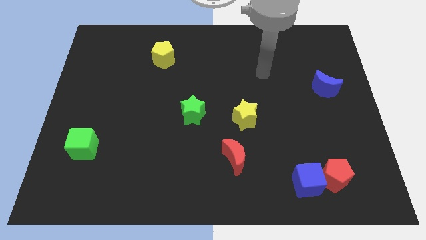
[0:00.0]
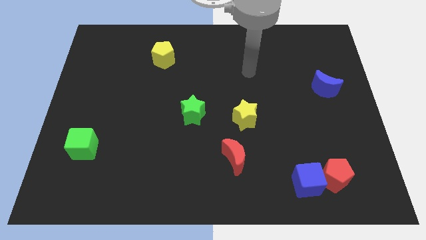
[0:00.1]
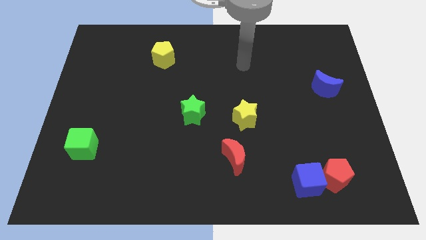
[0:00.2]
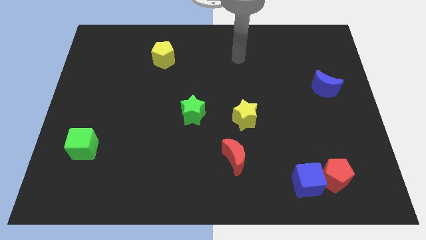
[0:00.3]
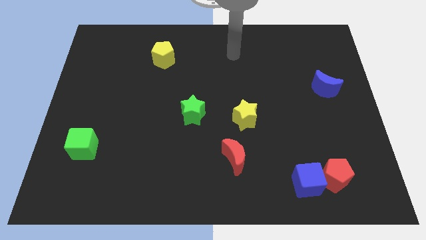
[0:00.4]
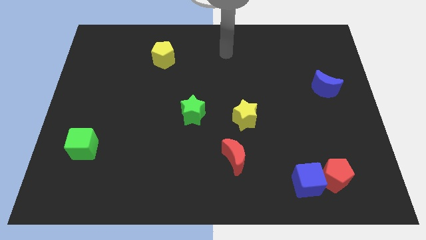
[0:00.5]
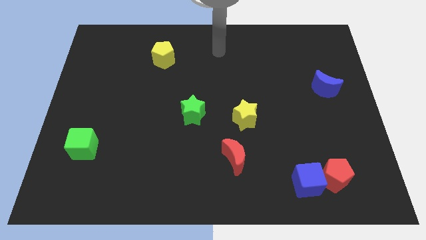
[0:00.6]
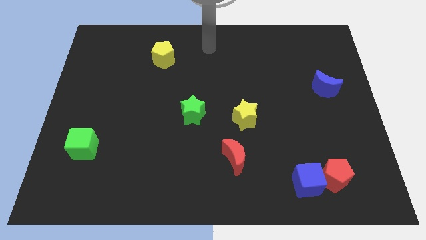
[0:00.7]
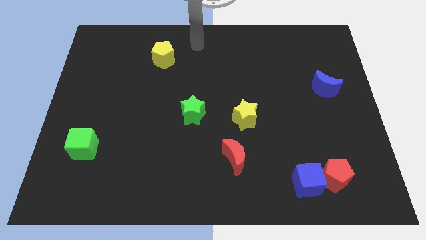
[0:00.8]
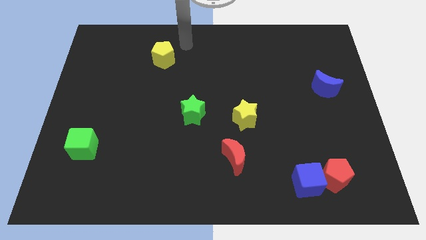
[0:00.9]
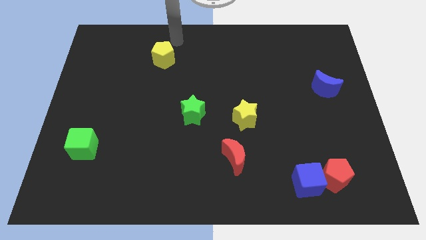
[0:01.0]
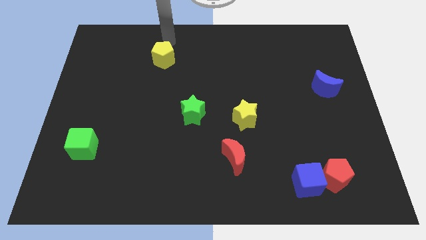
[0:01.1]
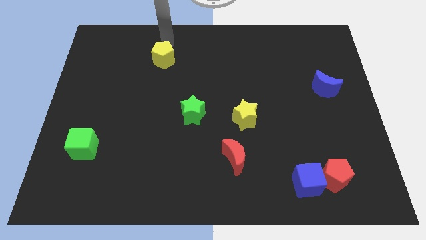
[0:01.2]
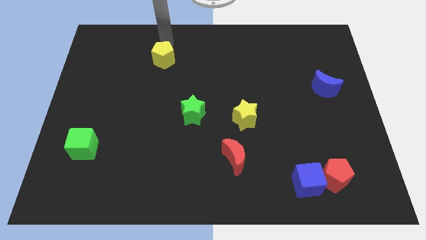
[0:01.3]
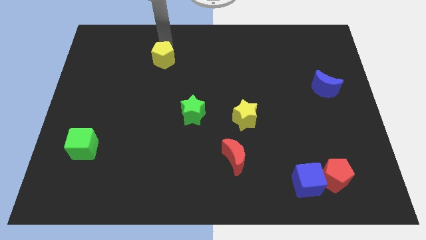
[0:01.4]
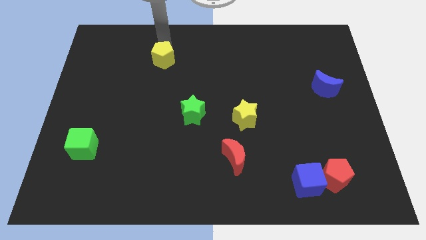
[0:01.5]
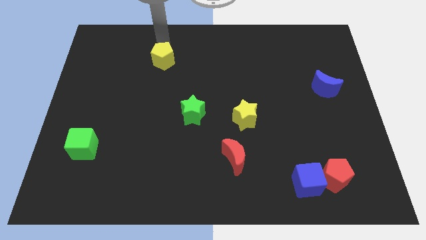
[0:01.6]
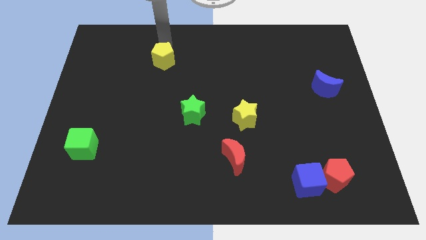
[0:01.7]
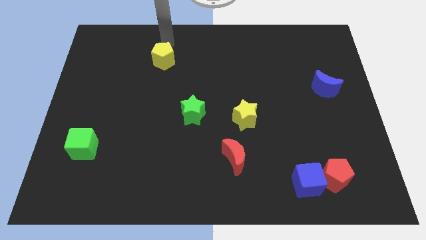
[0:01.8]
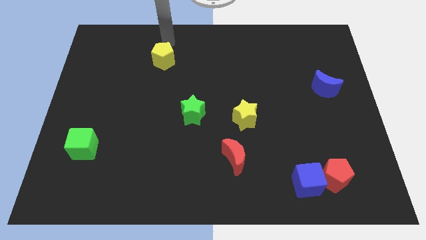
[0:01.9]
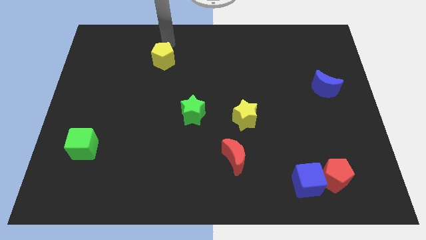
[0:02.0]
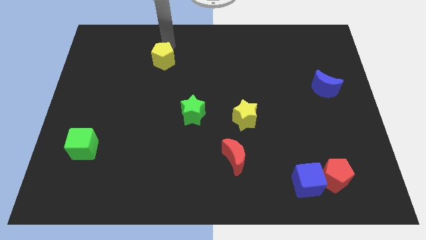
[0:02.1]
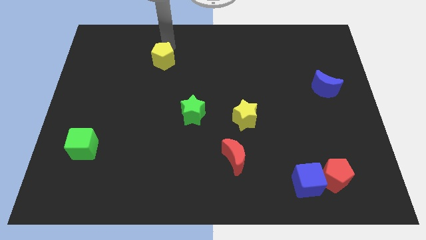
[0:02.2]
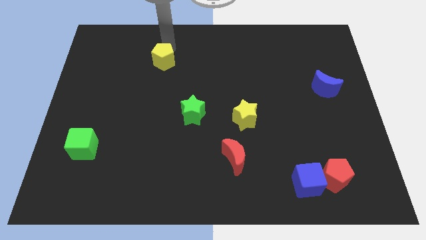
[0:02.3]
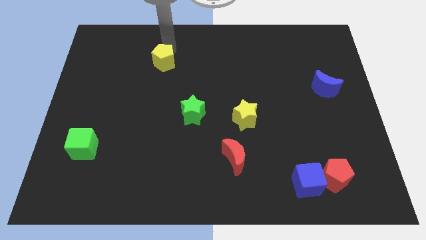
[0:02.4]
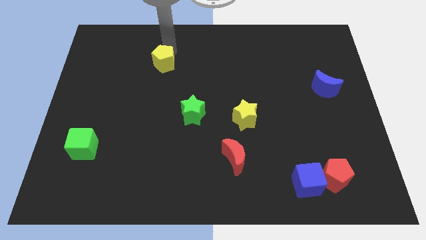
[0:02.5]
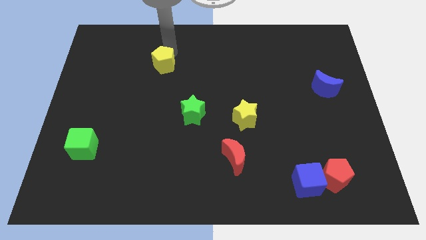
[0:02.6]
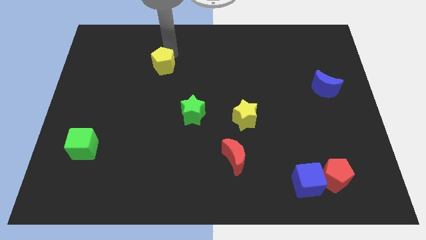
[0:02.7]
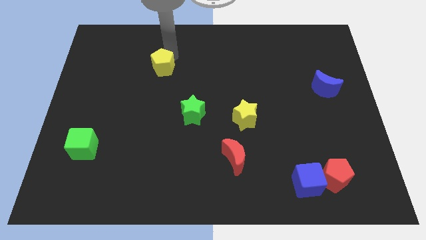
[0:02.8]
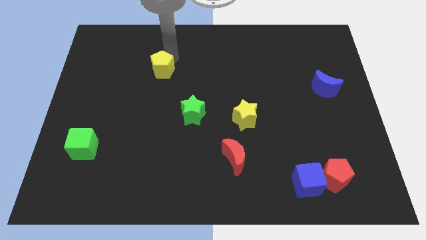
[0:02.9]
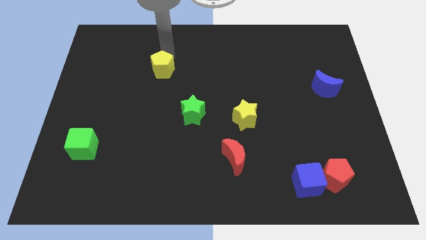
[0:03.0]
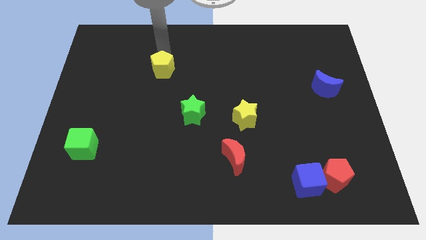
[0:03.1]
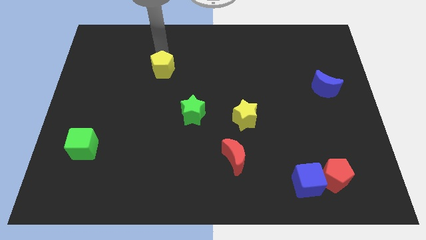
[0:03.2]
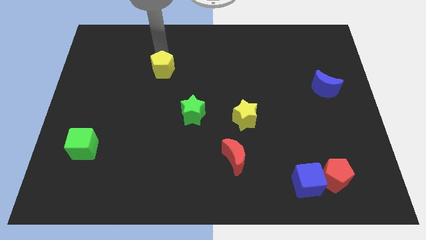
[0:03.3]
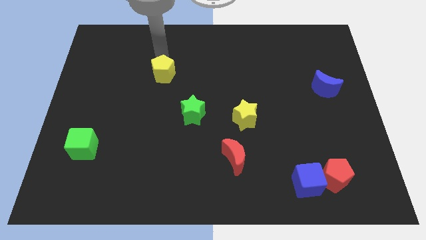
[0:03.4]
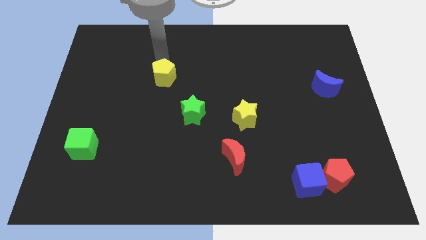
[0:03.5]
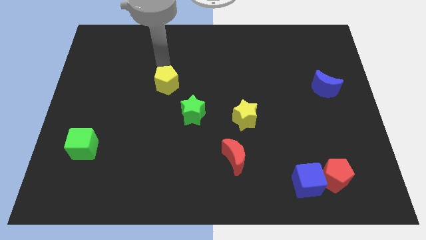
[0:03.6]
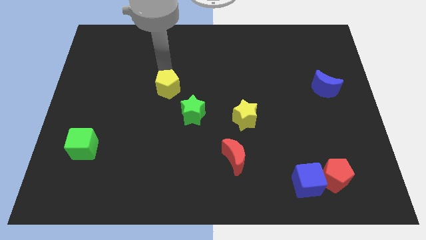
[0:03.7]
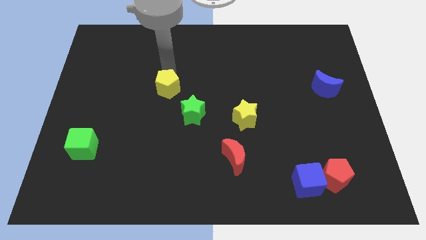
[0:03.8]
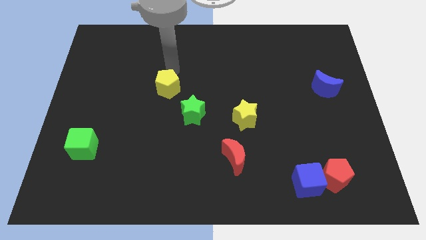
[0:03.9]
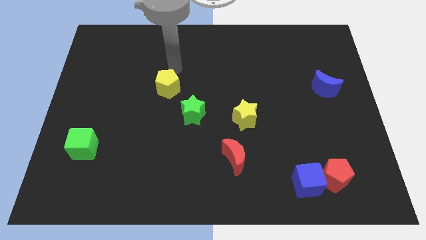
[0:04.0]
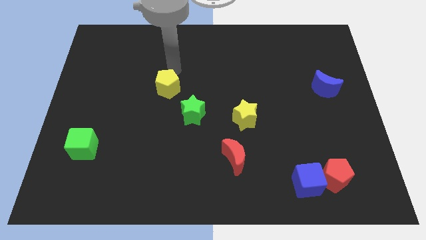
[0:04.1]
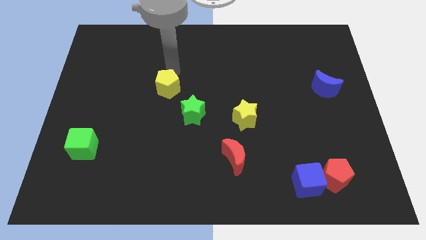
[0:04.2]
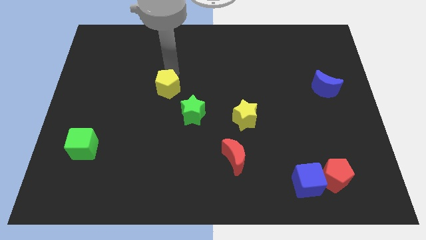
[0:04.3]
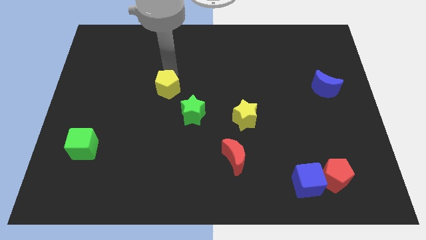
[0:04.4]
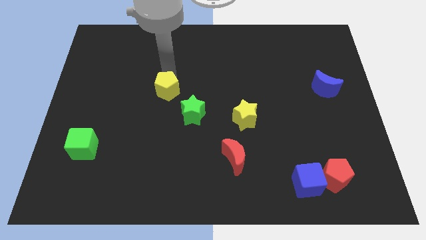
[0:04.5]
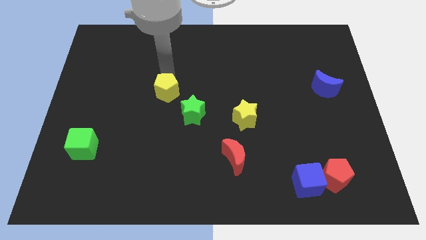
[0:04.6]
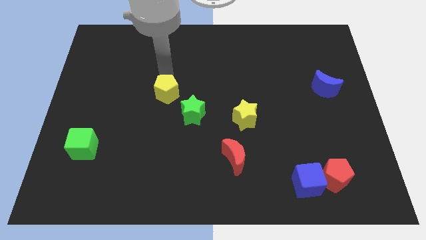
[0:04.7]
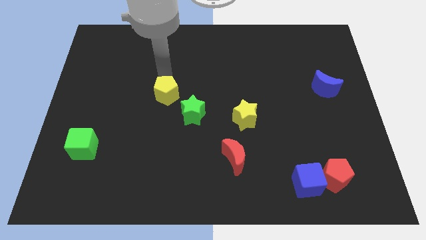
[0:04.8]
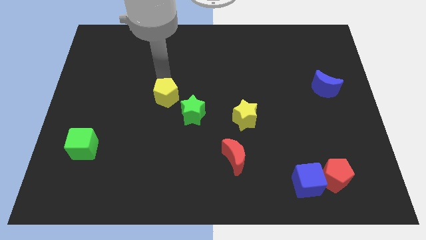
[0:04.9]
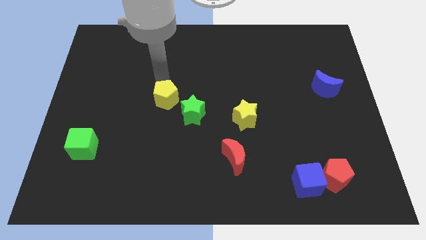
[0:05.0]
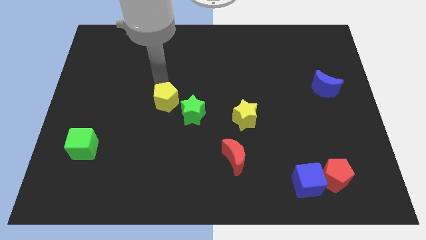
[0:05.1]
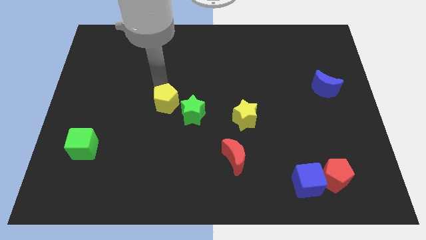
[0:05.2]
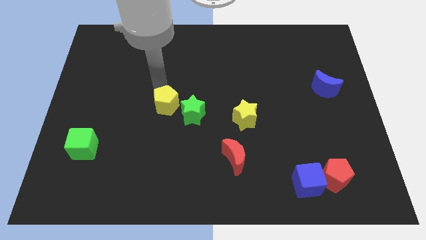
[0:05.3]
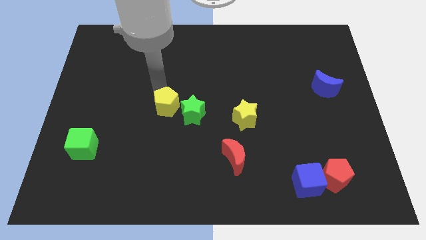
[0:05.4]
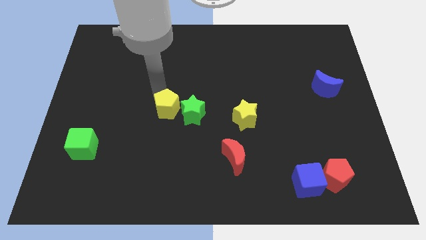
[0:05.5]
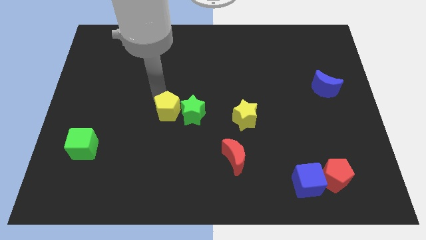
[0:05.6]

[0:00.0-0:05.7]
slide the yellow pentagon diagonally down and to the left of the green star

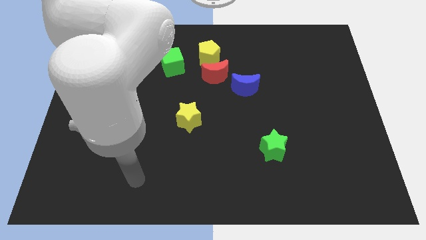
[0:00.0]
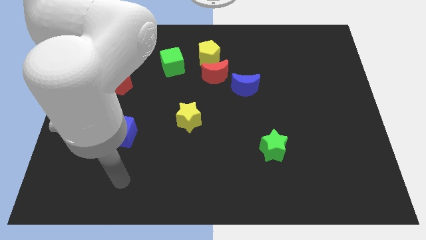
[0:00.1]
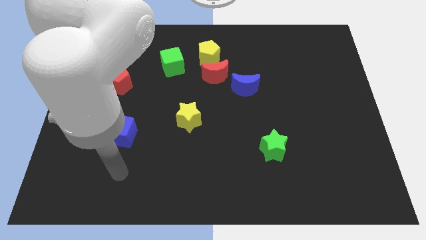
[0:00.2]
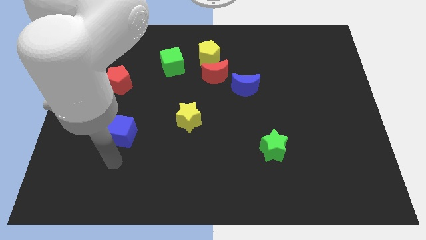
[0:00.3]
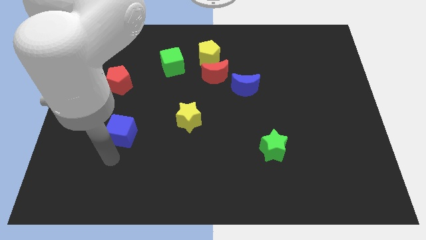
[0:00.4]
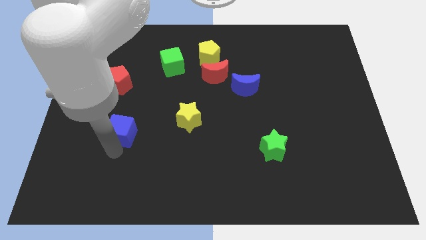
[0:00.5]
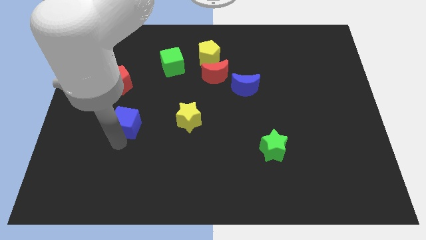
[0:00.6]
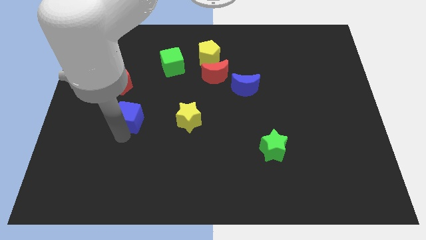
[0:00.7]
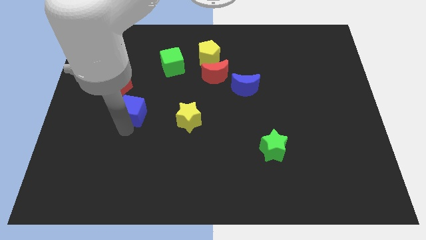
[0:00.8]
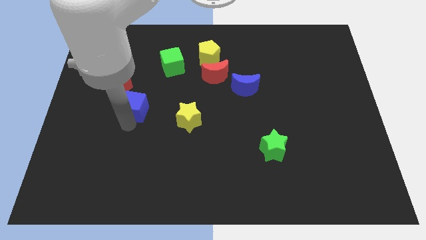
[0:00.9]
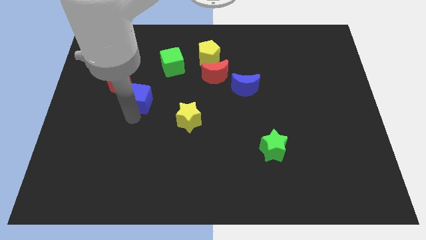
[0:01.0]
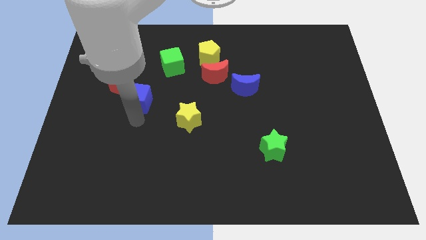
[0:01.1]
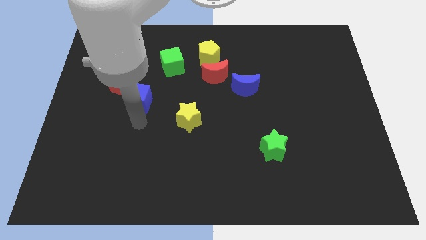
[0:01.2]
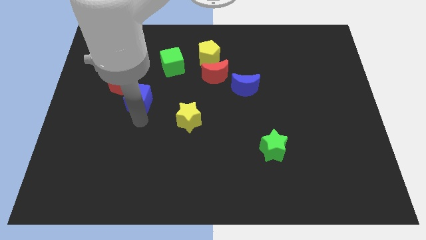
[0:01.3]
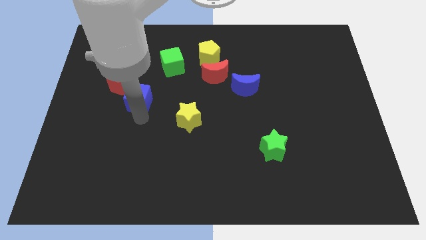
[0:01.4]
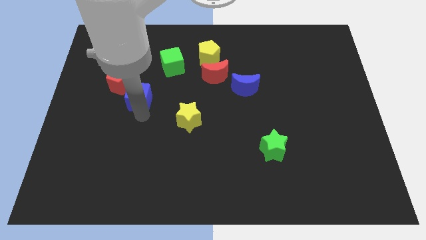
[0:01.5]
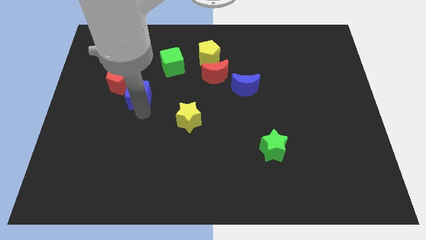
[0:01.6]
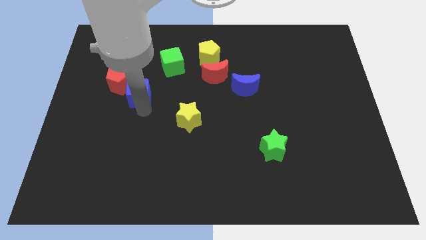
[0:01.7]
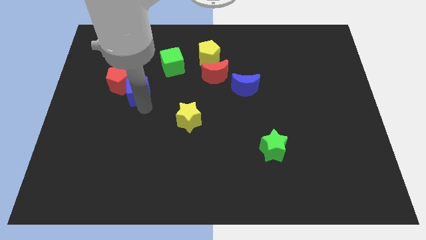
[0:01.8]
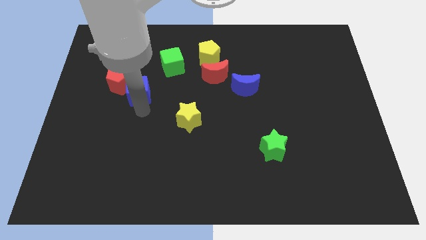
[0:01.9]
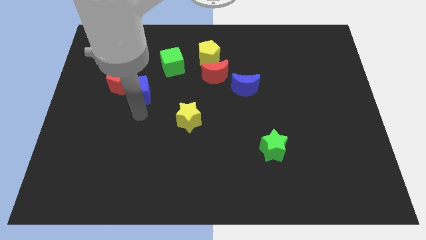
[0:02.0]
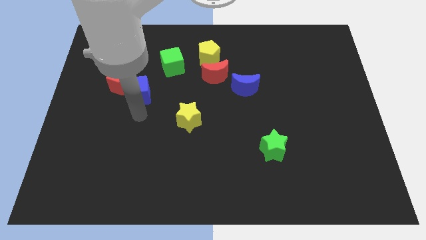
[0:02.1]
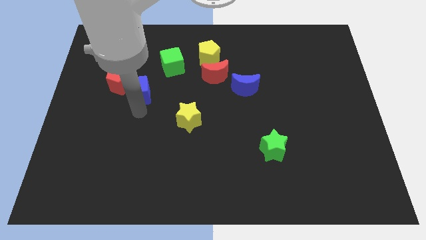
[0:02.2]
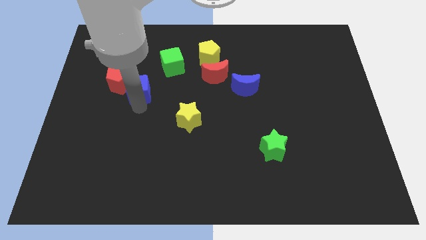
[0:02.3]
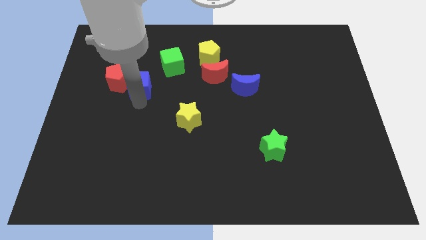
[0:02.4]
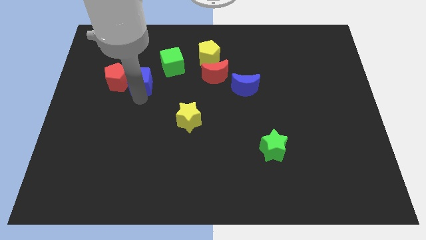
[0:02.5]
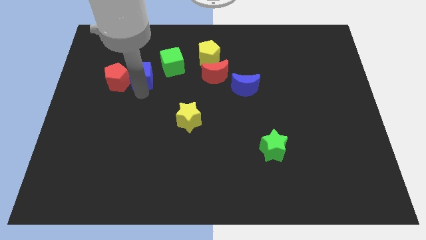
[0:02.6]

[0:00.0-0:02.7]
slide the blue cube left of the green cube
